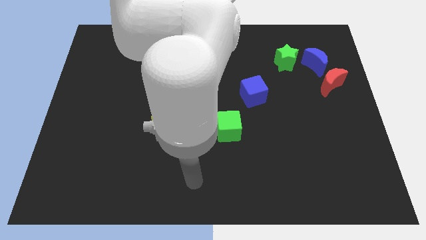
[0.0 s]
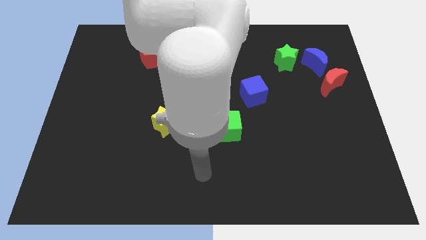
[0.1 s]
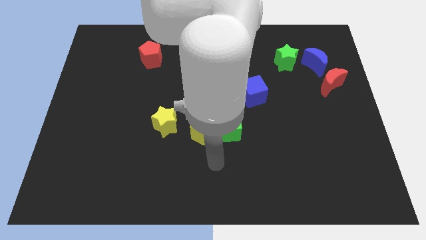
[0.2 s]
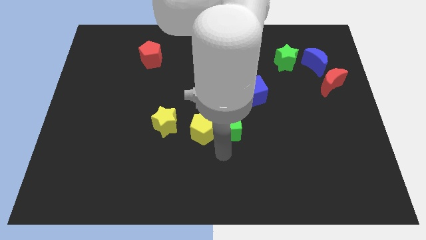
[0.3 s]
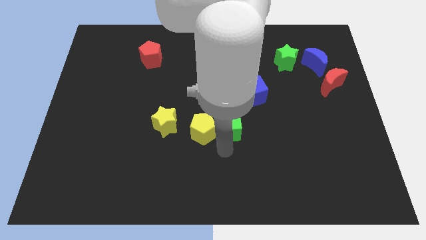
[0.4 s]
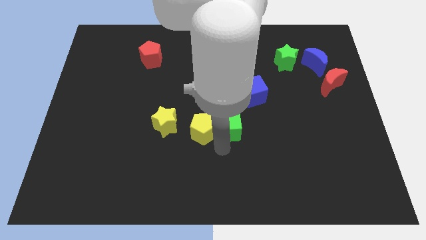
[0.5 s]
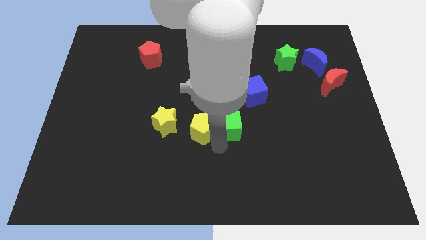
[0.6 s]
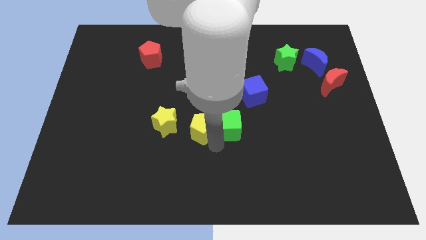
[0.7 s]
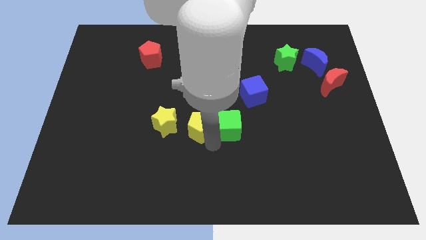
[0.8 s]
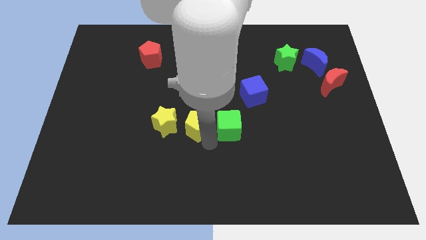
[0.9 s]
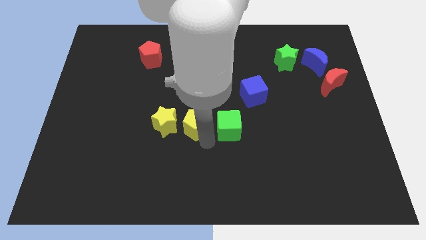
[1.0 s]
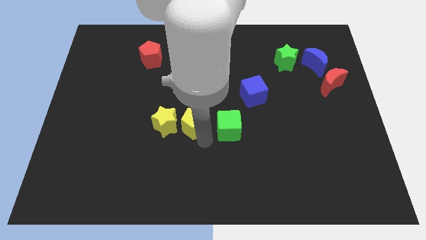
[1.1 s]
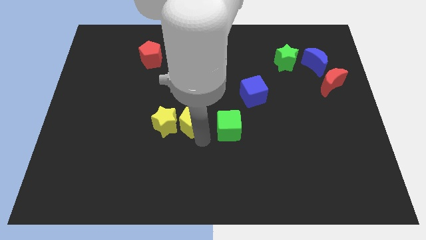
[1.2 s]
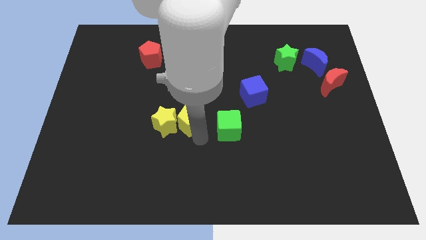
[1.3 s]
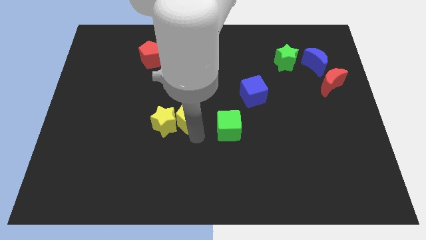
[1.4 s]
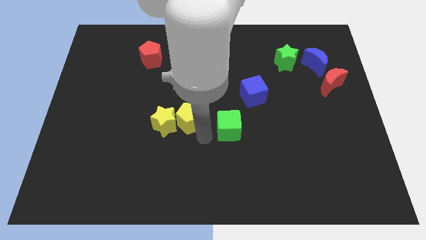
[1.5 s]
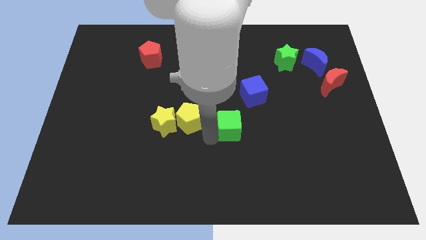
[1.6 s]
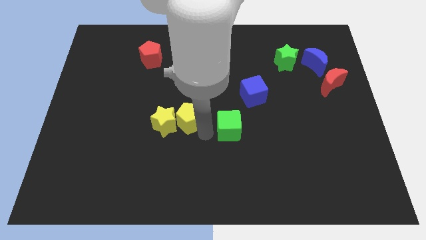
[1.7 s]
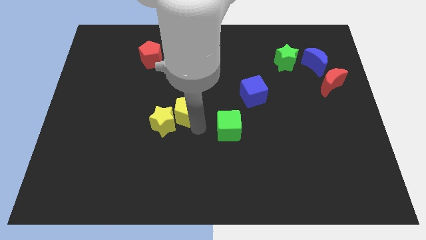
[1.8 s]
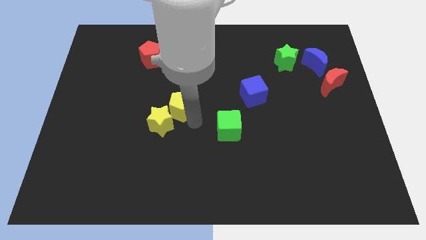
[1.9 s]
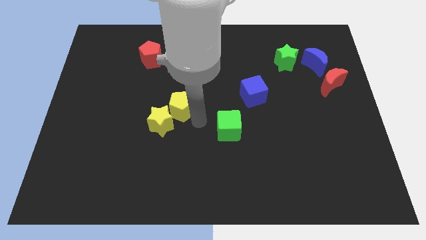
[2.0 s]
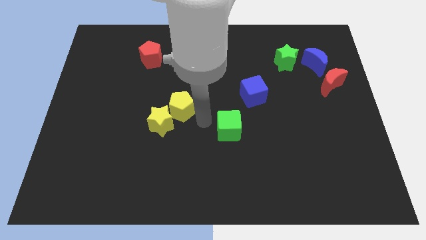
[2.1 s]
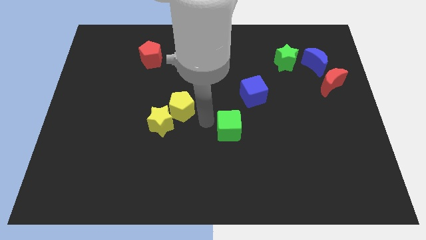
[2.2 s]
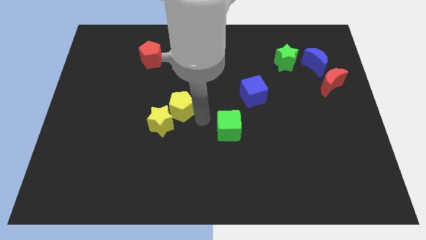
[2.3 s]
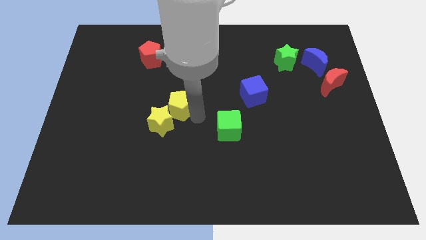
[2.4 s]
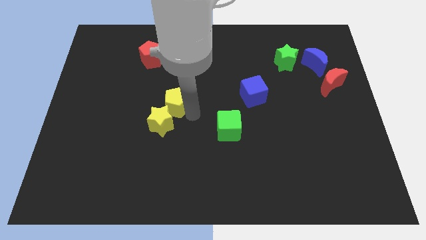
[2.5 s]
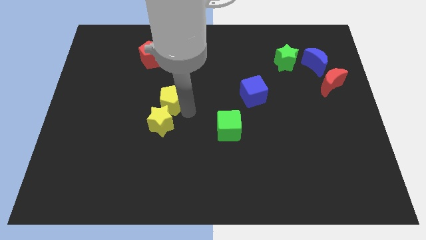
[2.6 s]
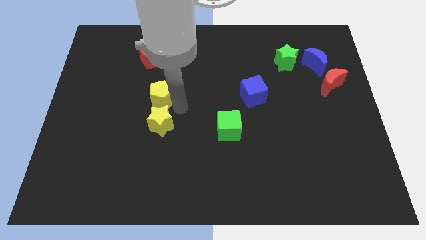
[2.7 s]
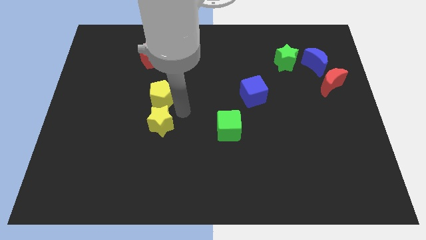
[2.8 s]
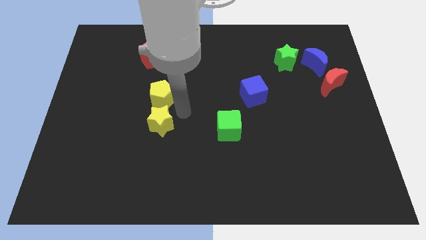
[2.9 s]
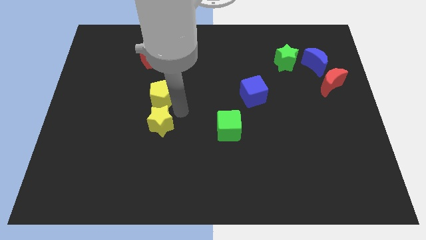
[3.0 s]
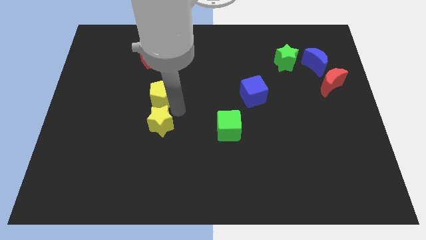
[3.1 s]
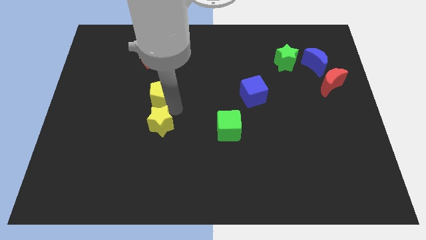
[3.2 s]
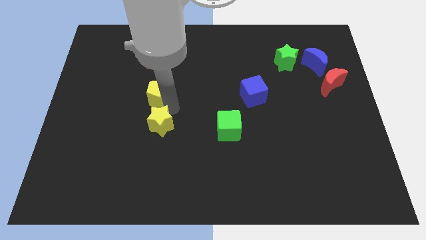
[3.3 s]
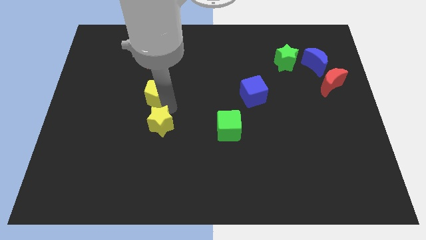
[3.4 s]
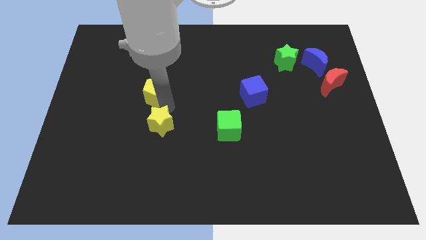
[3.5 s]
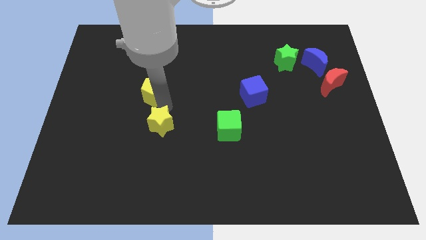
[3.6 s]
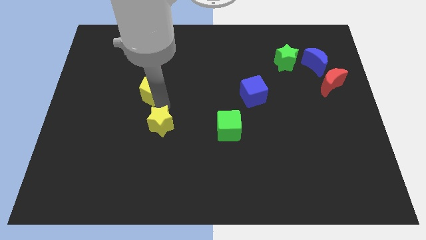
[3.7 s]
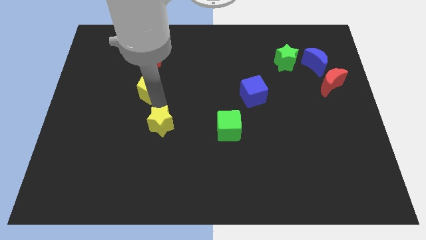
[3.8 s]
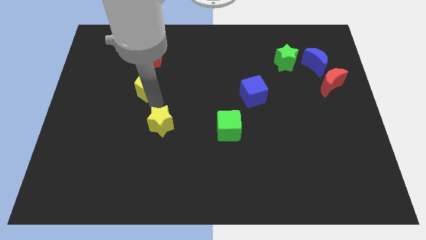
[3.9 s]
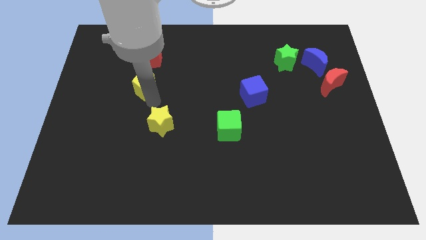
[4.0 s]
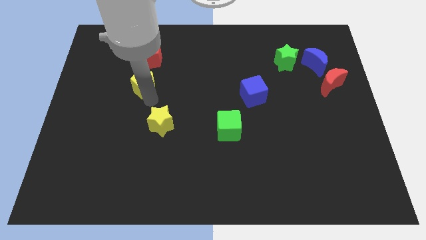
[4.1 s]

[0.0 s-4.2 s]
move the yellow pentagon upwards and to the left

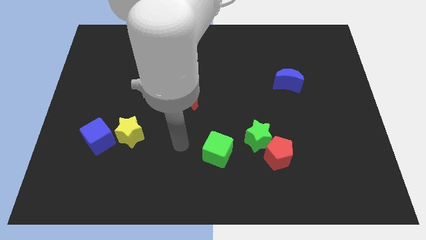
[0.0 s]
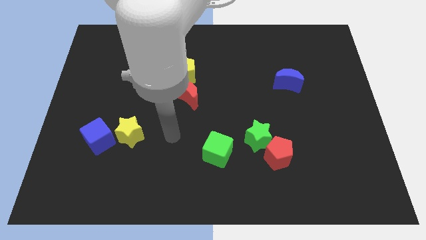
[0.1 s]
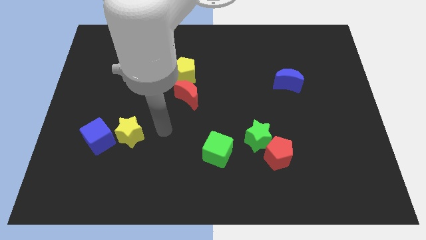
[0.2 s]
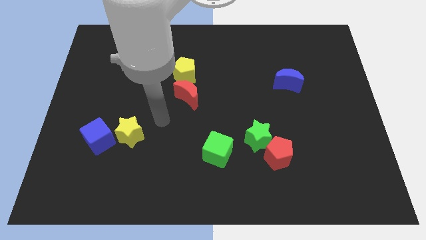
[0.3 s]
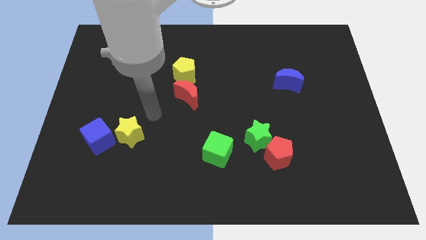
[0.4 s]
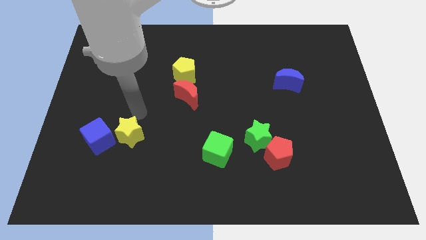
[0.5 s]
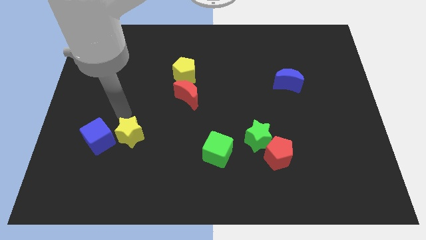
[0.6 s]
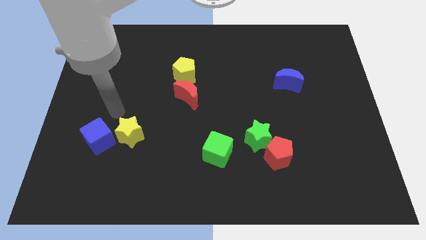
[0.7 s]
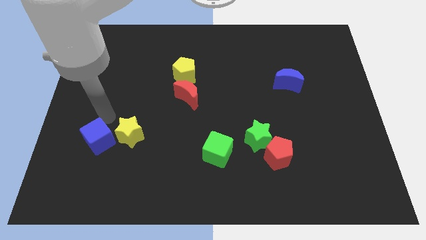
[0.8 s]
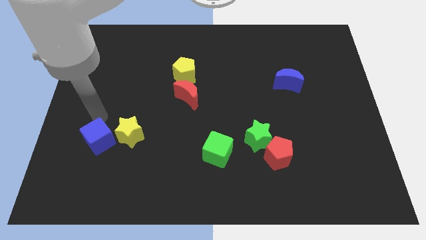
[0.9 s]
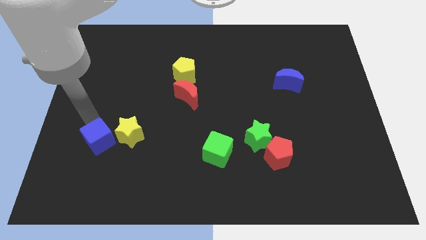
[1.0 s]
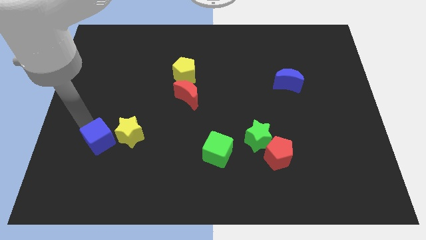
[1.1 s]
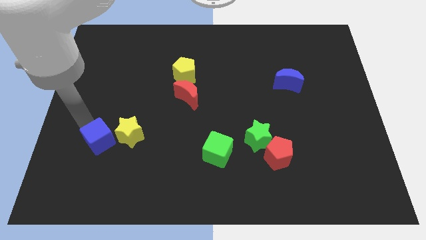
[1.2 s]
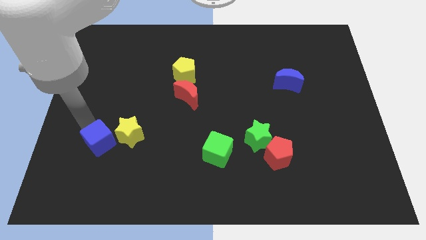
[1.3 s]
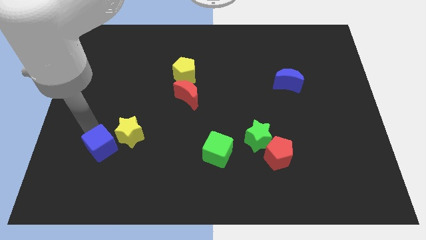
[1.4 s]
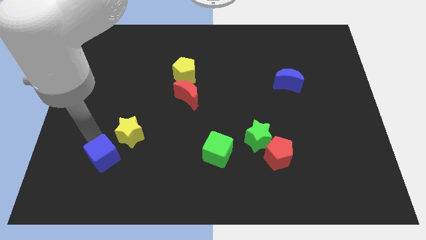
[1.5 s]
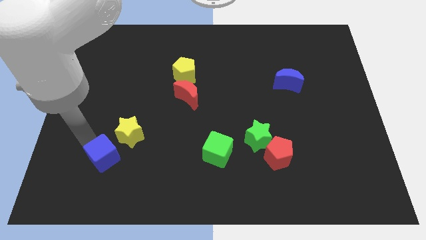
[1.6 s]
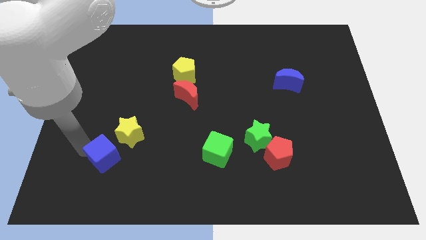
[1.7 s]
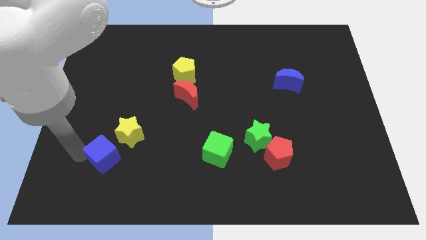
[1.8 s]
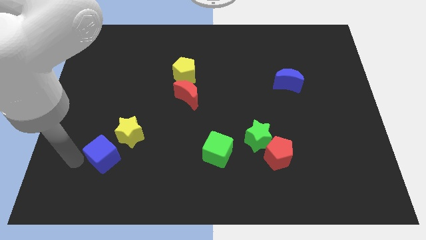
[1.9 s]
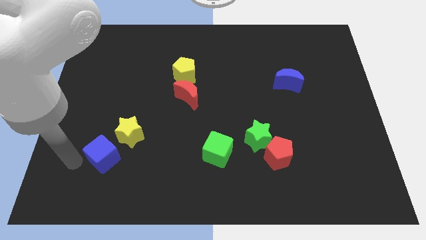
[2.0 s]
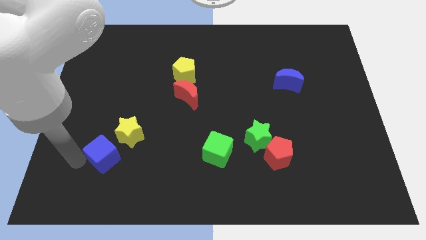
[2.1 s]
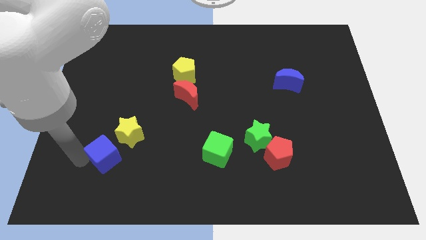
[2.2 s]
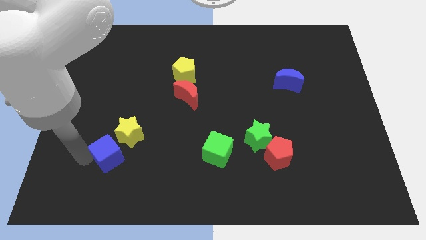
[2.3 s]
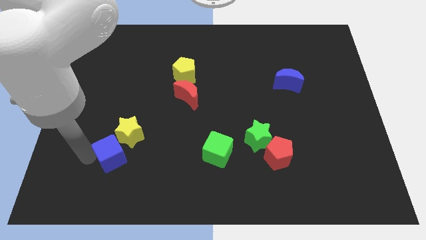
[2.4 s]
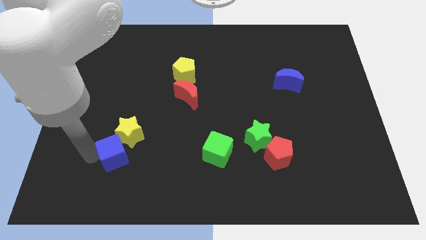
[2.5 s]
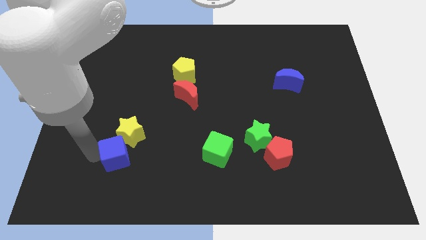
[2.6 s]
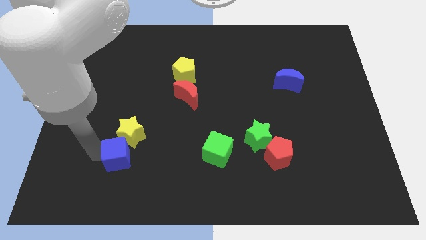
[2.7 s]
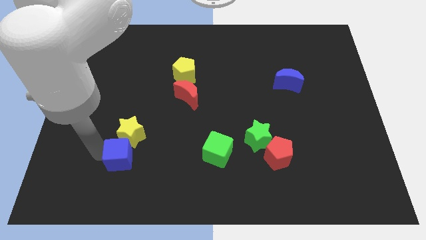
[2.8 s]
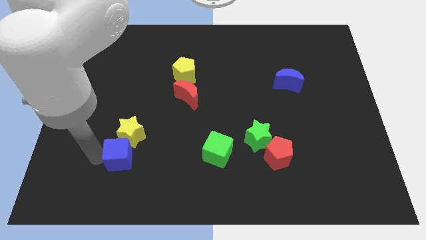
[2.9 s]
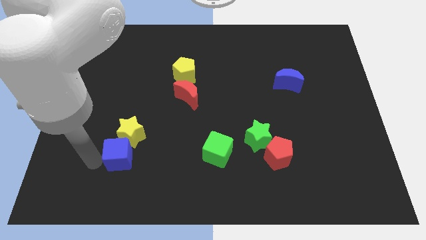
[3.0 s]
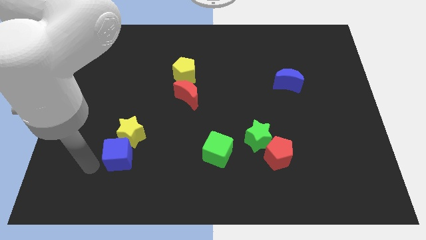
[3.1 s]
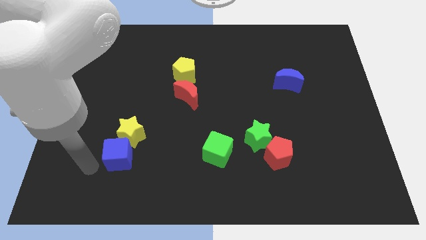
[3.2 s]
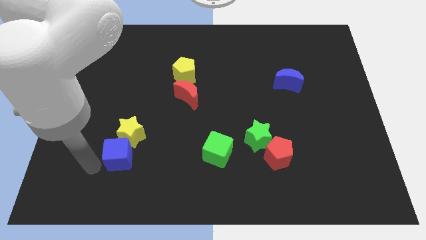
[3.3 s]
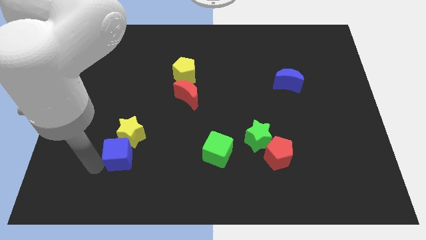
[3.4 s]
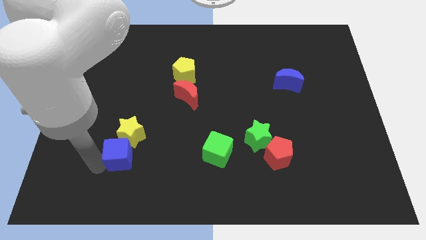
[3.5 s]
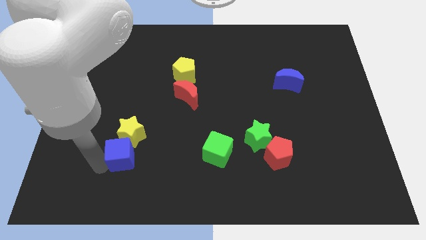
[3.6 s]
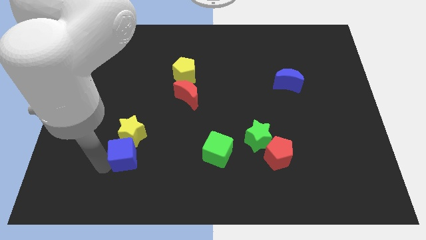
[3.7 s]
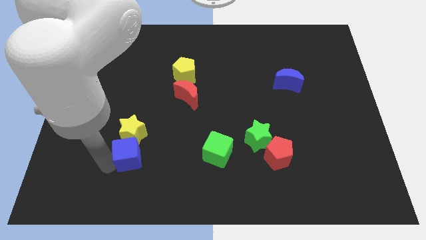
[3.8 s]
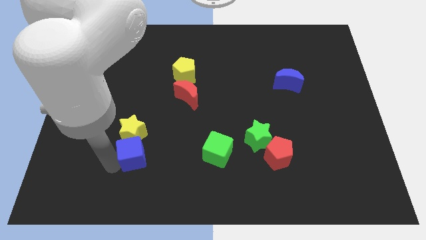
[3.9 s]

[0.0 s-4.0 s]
move the blue cube right a bit
